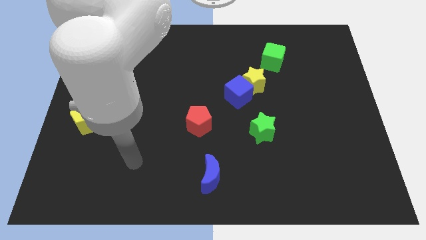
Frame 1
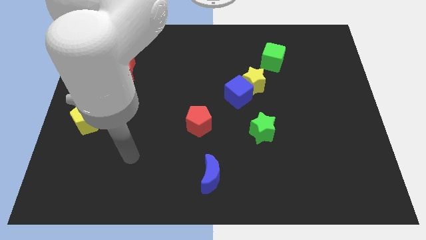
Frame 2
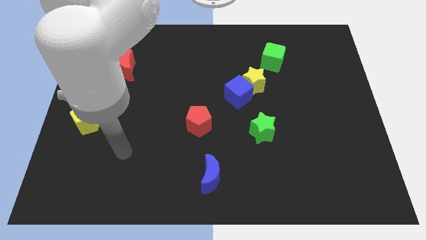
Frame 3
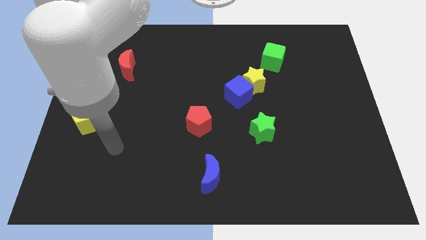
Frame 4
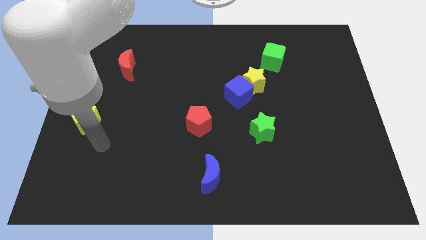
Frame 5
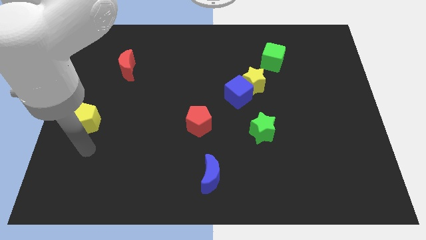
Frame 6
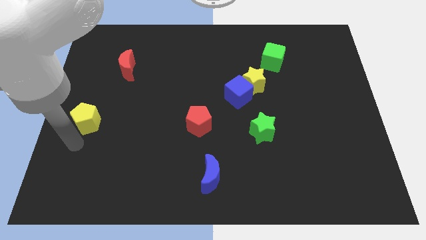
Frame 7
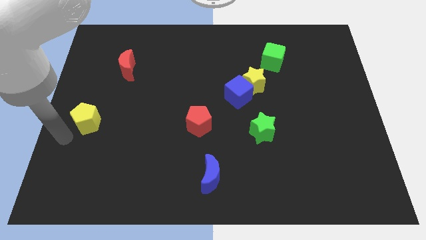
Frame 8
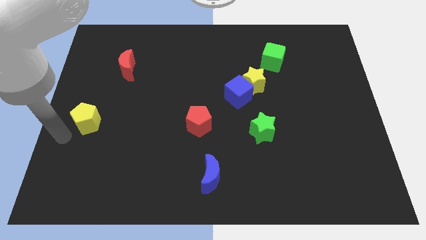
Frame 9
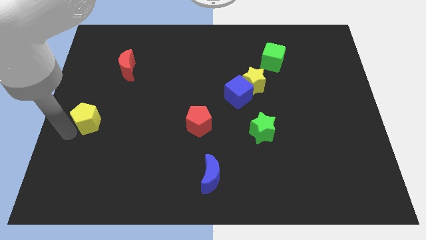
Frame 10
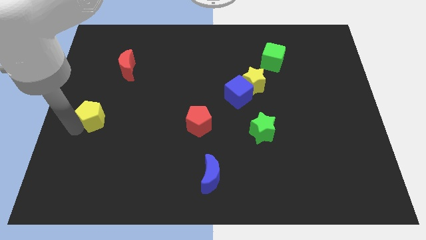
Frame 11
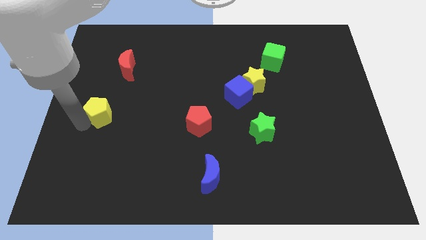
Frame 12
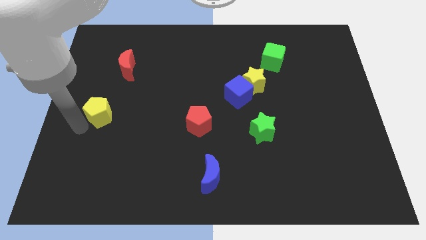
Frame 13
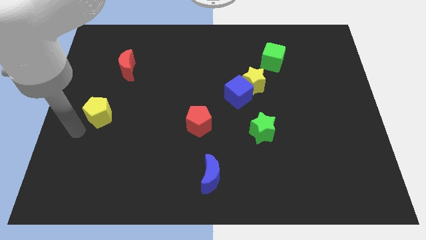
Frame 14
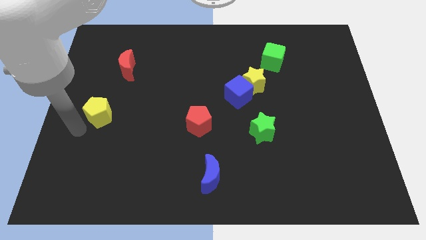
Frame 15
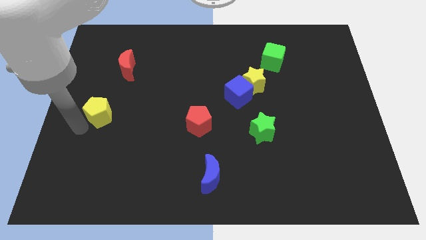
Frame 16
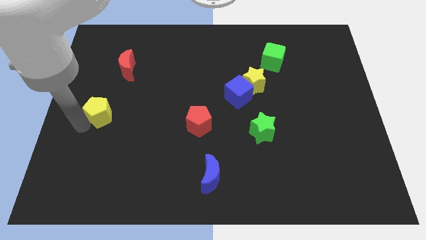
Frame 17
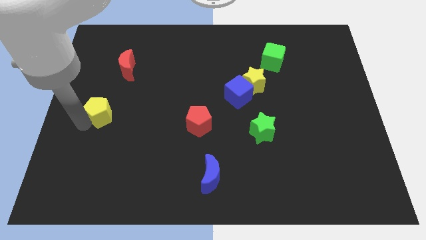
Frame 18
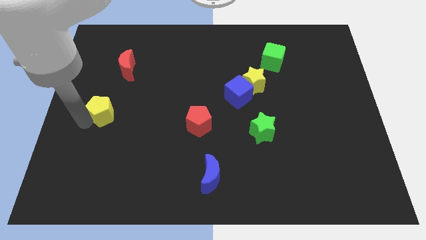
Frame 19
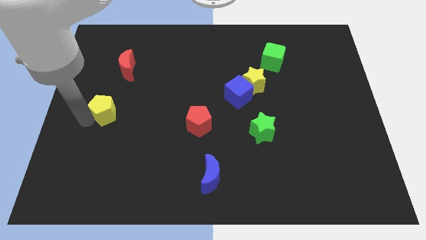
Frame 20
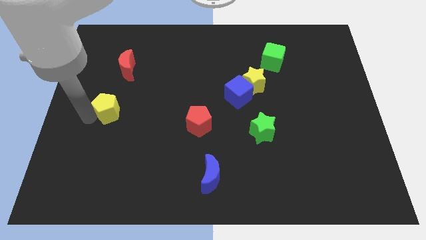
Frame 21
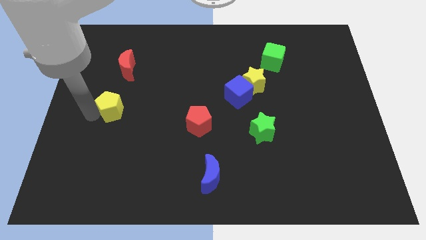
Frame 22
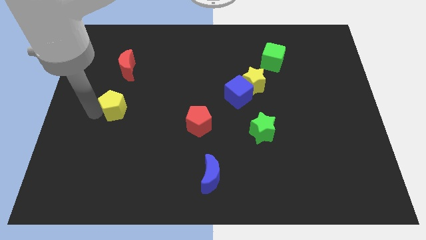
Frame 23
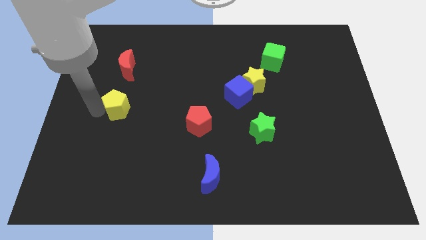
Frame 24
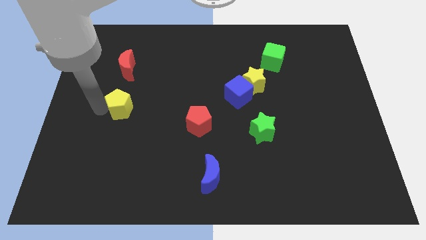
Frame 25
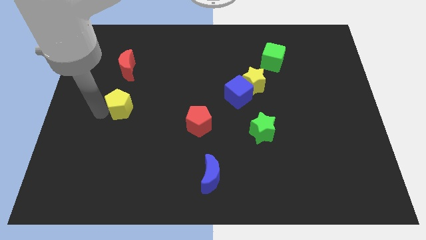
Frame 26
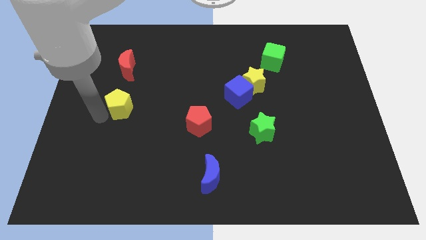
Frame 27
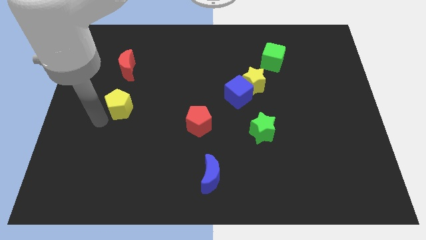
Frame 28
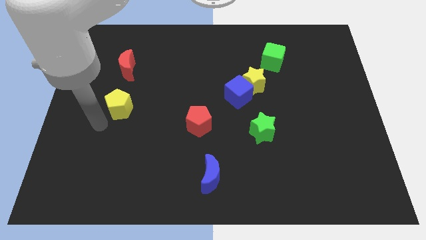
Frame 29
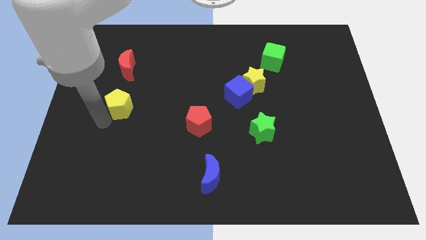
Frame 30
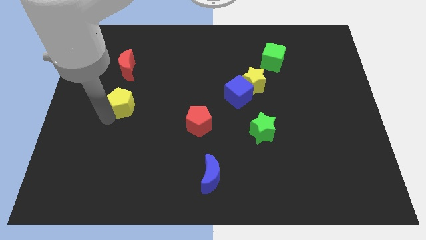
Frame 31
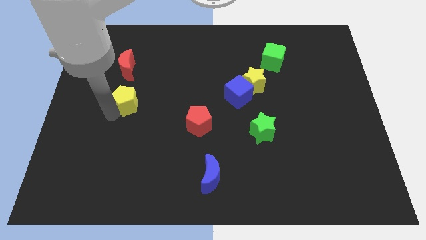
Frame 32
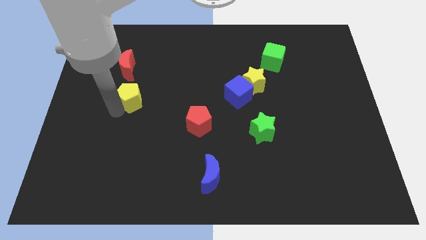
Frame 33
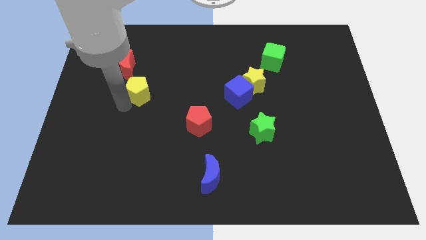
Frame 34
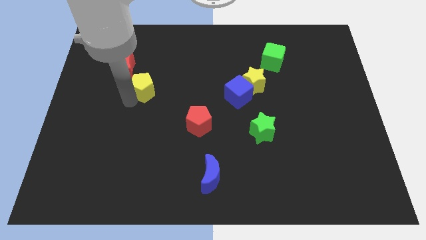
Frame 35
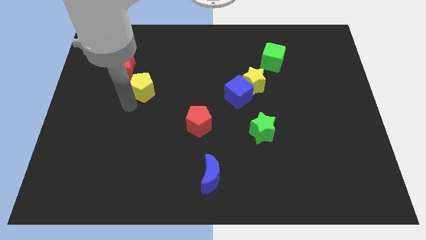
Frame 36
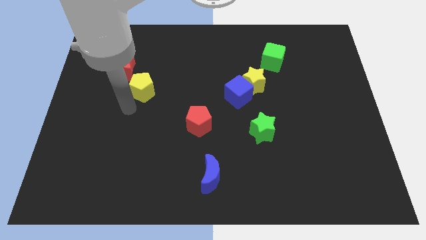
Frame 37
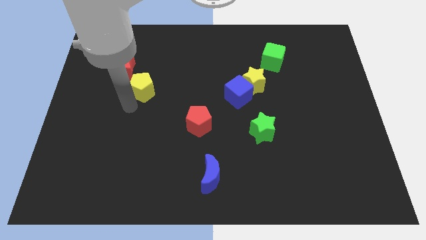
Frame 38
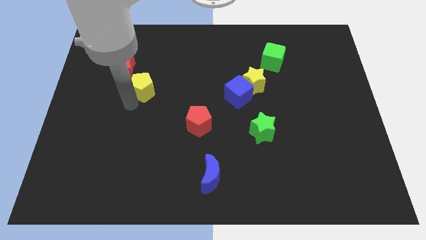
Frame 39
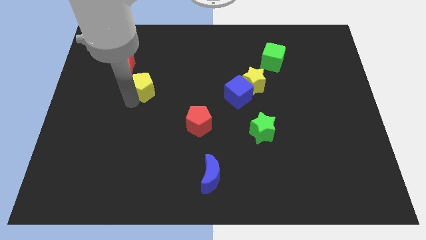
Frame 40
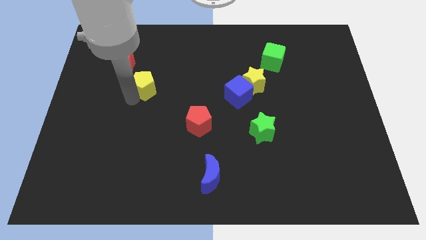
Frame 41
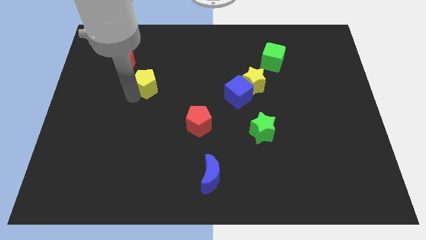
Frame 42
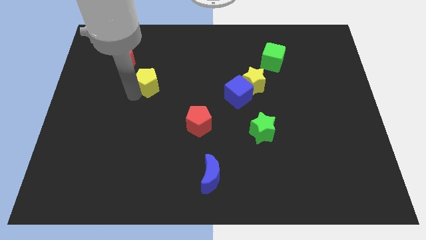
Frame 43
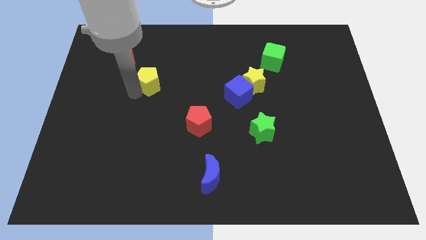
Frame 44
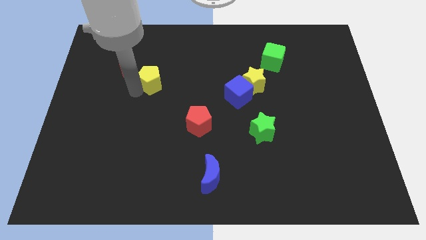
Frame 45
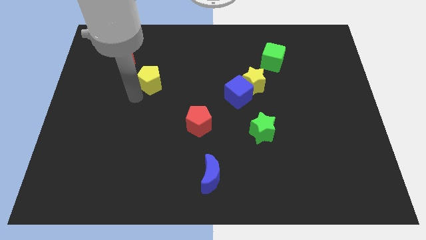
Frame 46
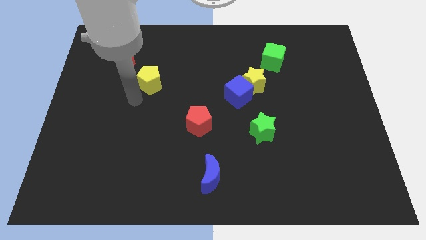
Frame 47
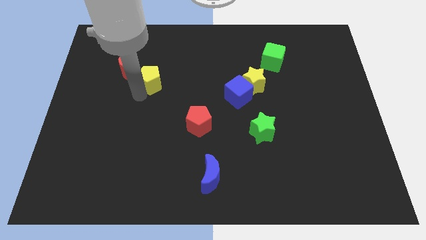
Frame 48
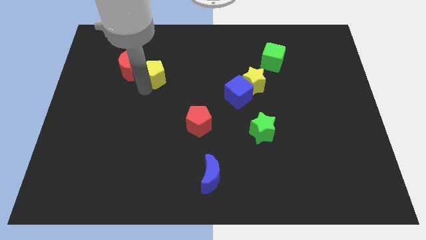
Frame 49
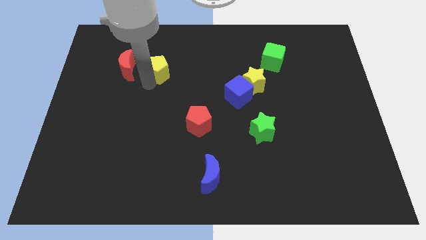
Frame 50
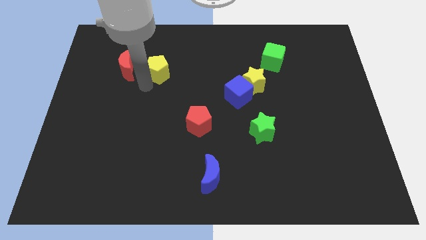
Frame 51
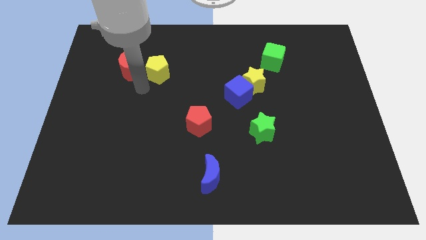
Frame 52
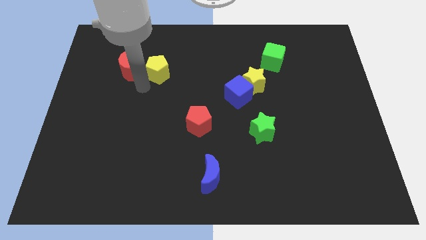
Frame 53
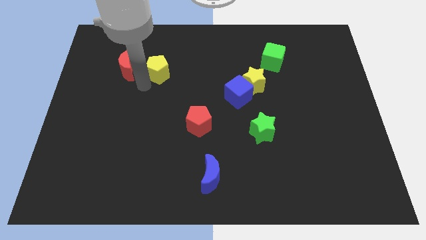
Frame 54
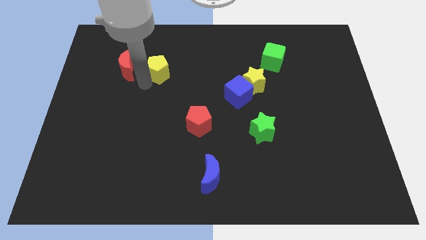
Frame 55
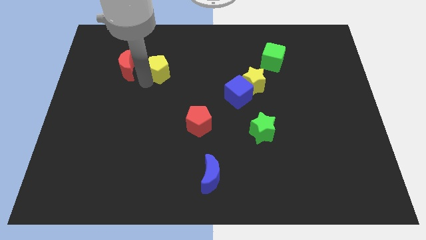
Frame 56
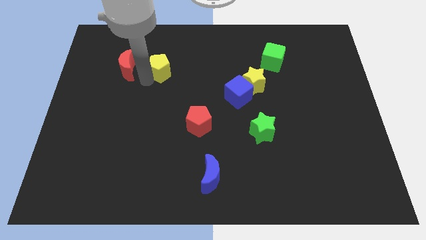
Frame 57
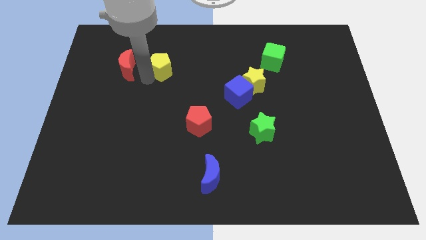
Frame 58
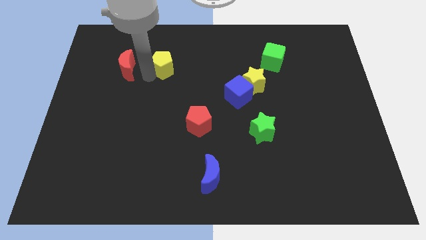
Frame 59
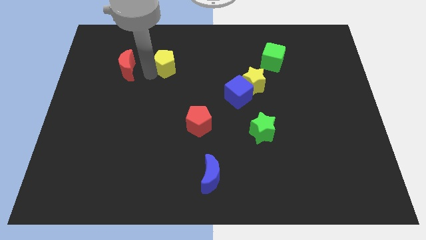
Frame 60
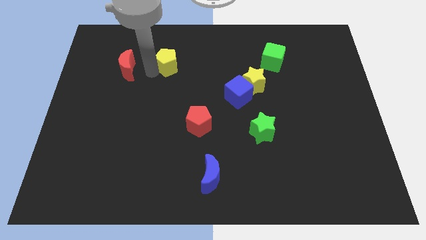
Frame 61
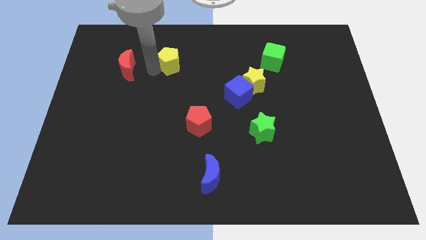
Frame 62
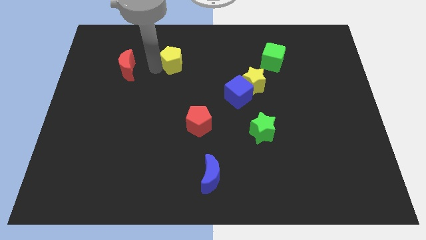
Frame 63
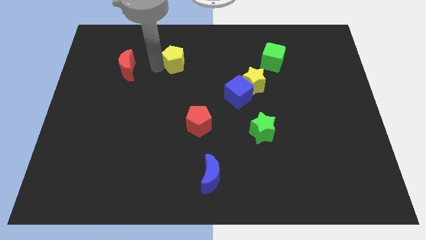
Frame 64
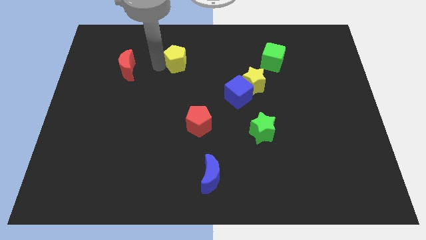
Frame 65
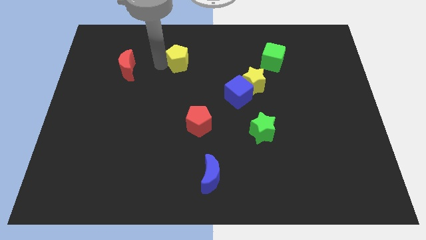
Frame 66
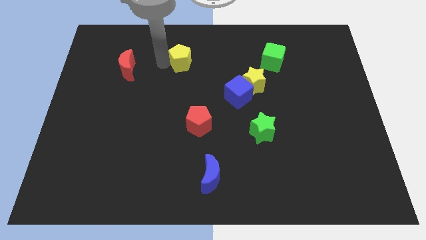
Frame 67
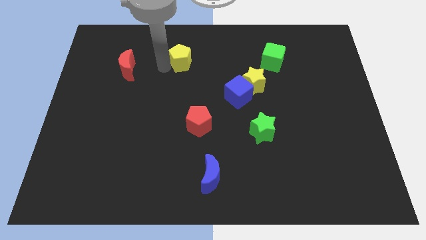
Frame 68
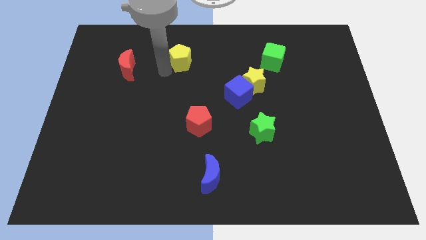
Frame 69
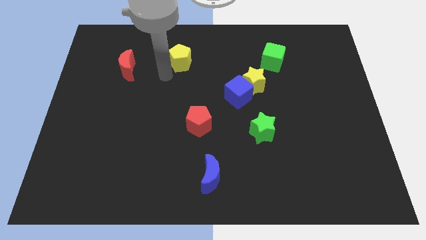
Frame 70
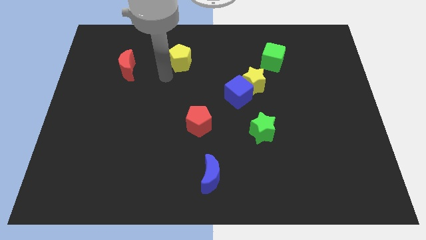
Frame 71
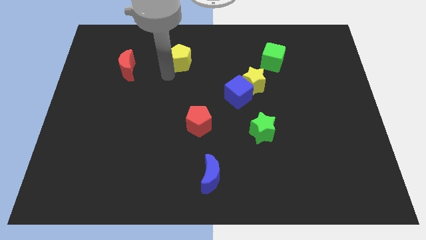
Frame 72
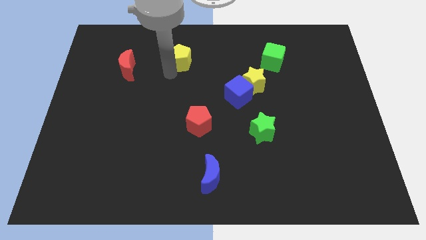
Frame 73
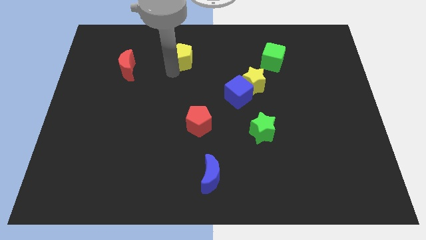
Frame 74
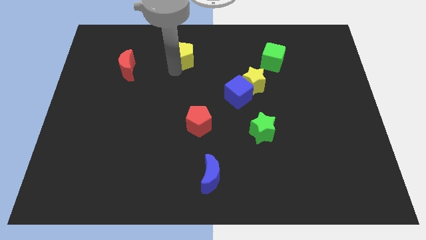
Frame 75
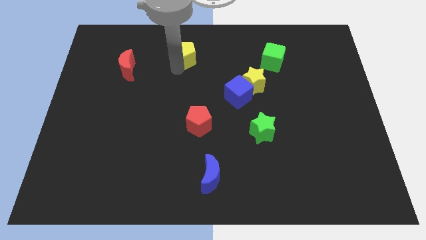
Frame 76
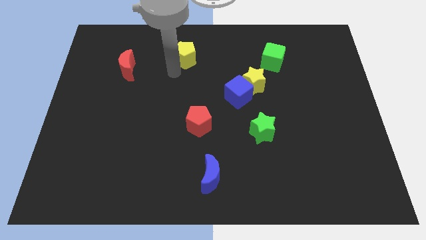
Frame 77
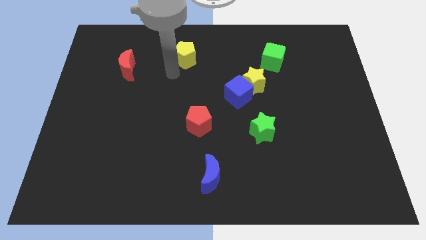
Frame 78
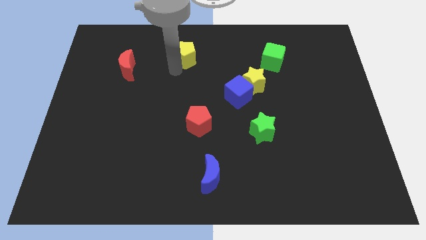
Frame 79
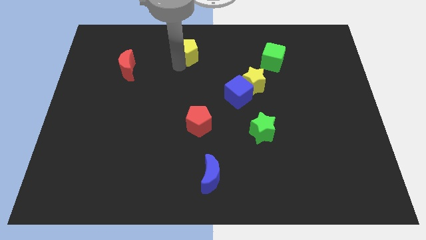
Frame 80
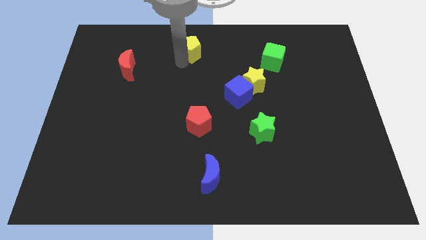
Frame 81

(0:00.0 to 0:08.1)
slide the yellow pentagon to the top side
